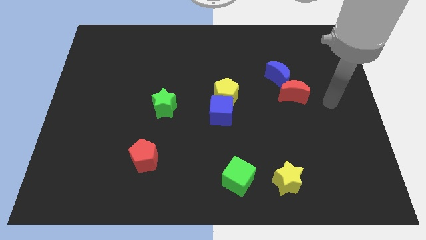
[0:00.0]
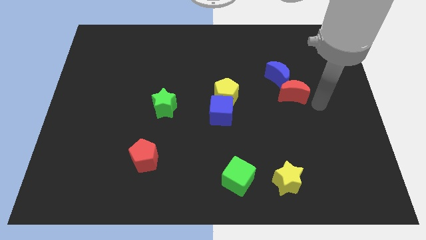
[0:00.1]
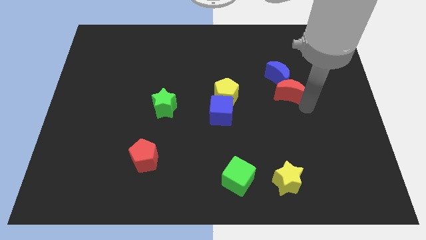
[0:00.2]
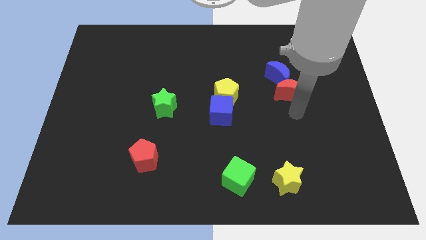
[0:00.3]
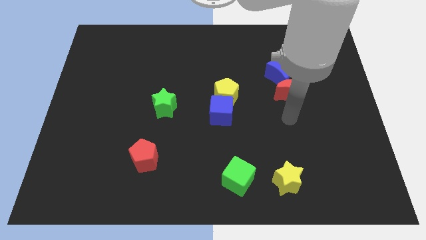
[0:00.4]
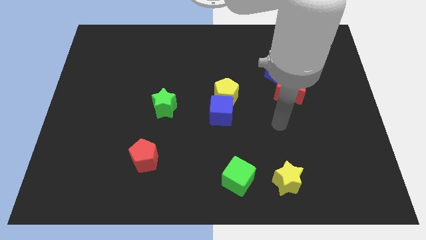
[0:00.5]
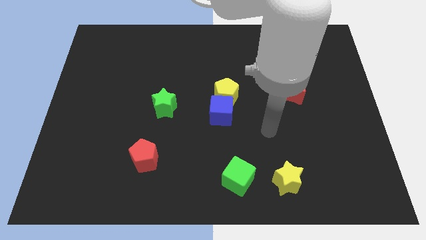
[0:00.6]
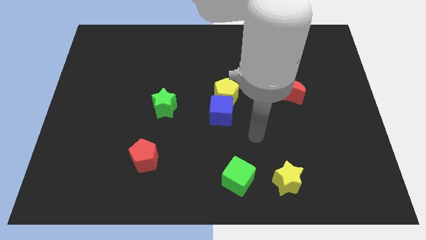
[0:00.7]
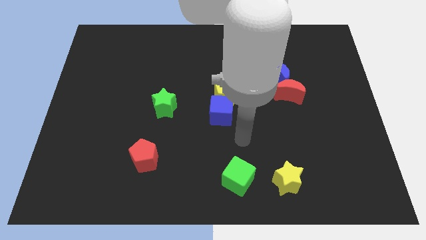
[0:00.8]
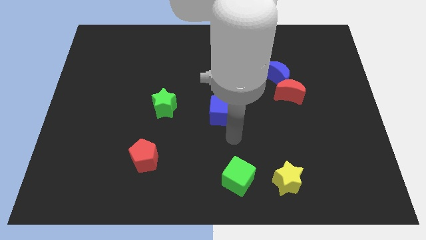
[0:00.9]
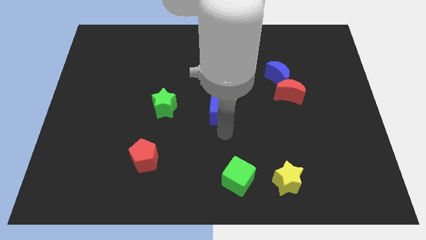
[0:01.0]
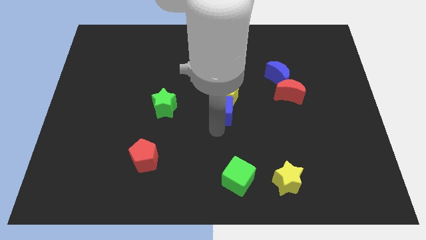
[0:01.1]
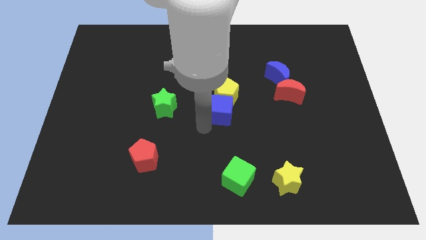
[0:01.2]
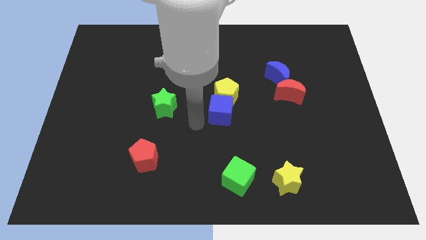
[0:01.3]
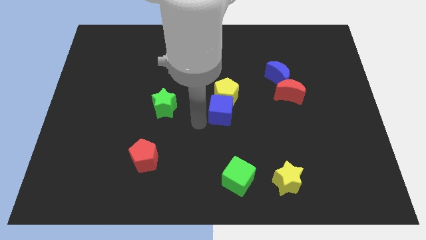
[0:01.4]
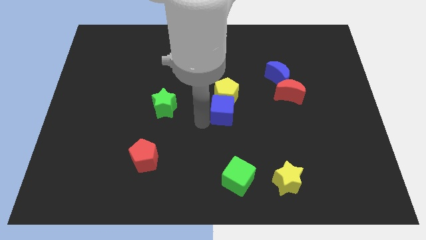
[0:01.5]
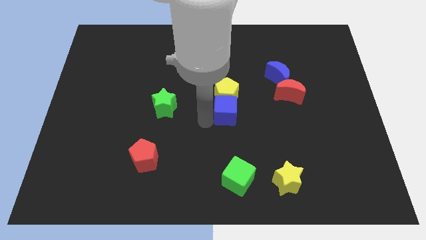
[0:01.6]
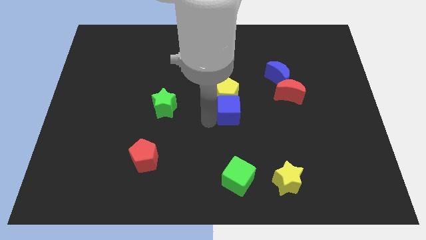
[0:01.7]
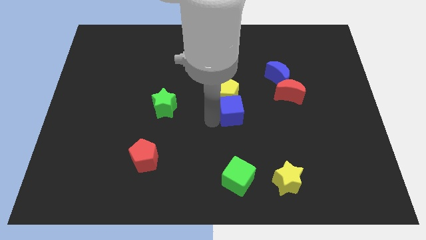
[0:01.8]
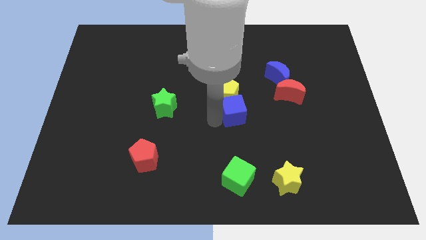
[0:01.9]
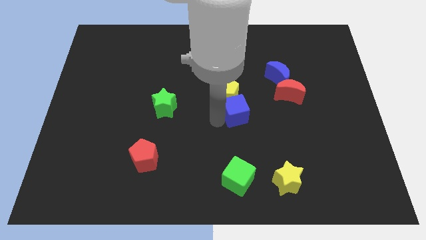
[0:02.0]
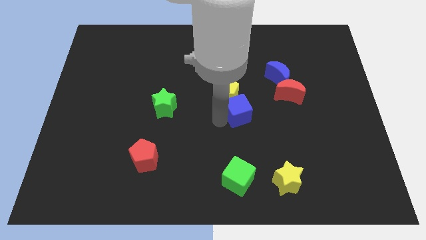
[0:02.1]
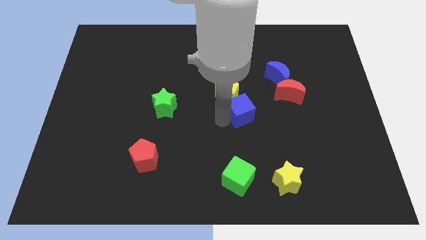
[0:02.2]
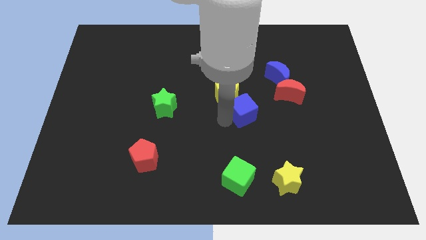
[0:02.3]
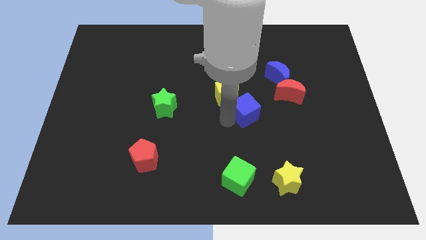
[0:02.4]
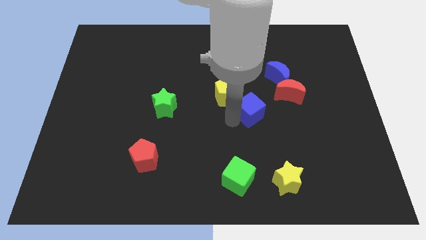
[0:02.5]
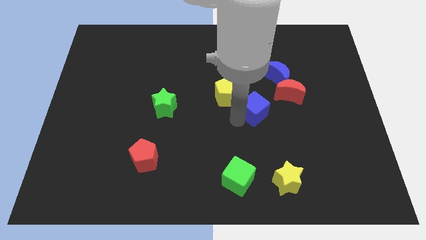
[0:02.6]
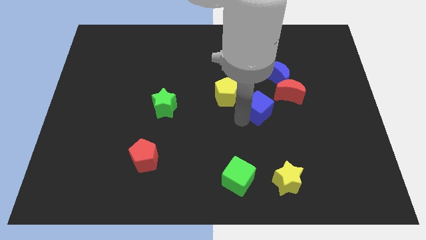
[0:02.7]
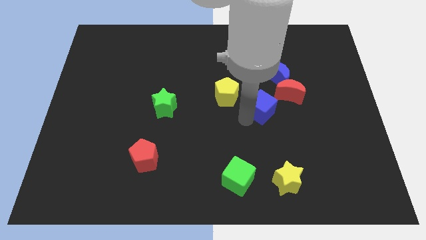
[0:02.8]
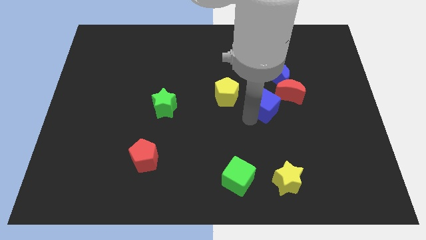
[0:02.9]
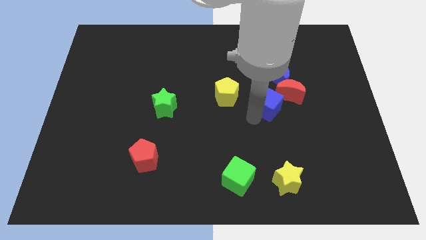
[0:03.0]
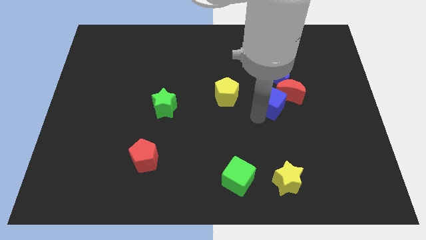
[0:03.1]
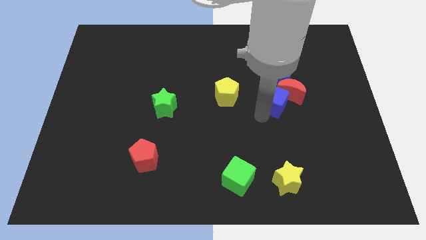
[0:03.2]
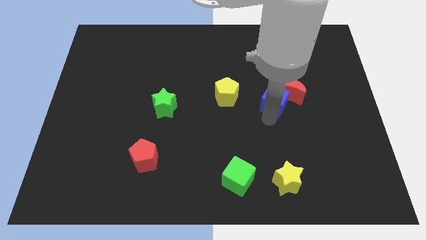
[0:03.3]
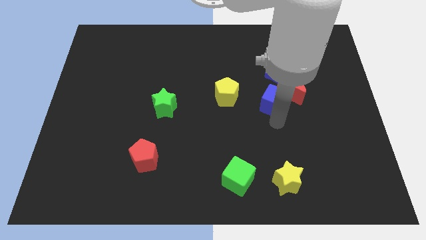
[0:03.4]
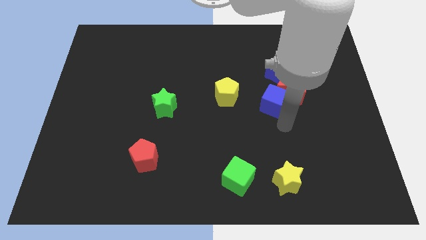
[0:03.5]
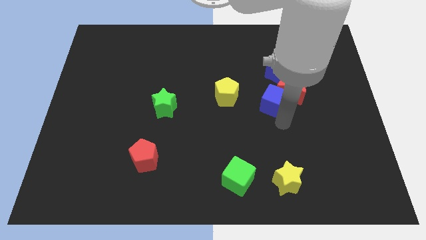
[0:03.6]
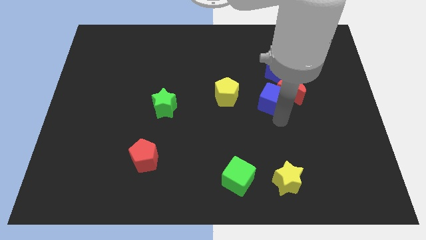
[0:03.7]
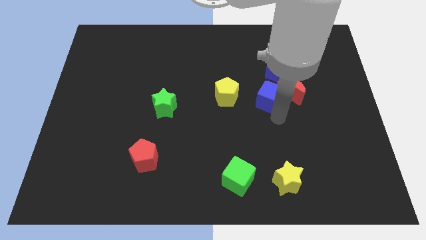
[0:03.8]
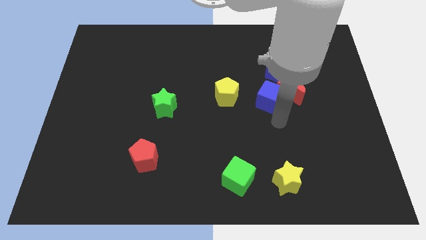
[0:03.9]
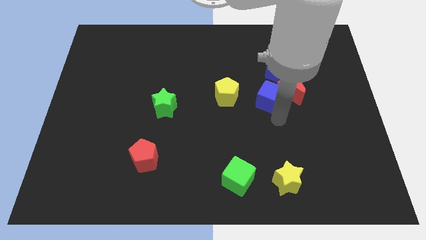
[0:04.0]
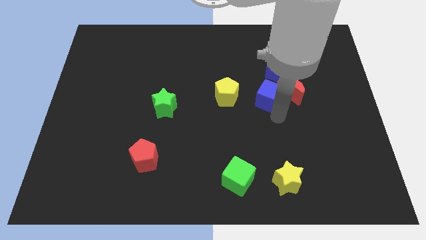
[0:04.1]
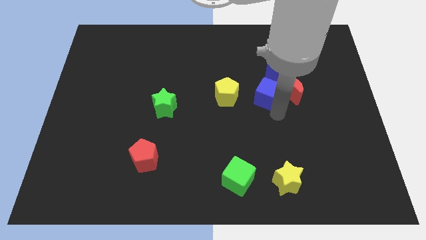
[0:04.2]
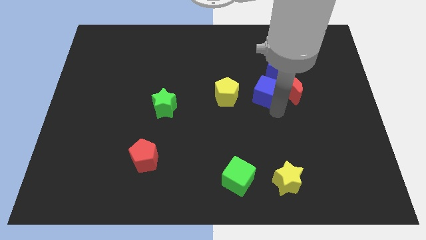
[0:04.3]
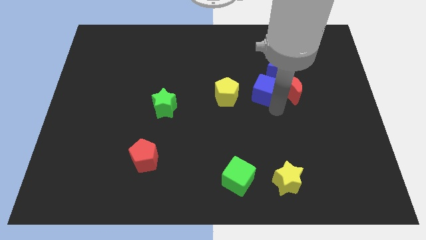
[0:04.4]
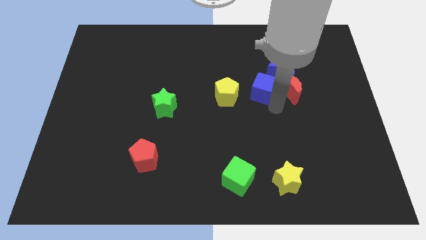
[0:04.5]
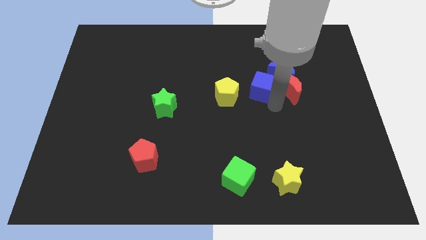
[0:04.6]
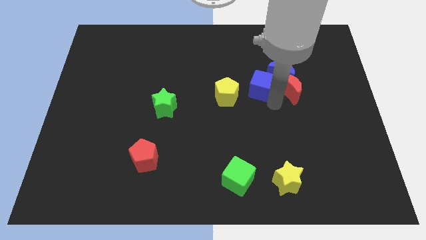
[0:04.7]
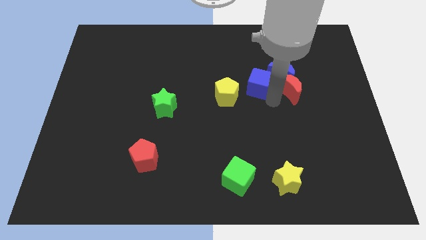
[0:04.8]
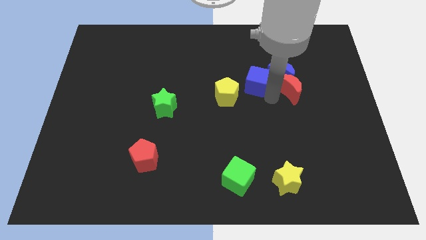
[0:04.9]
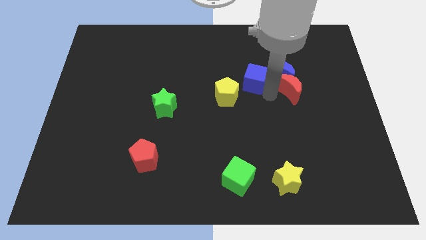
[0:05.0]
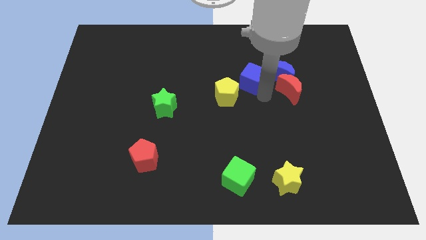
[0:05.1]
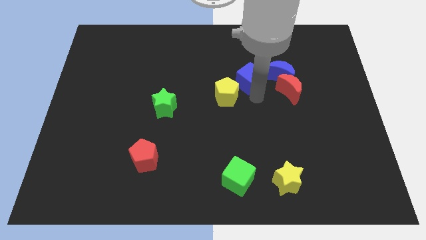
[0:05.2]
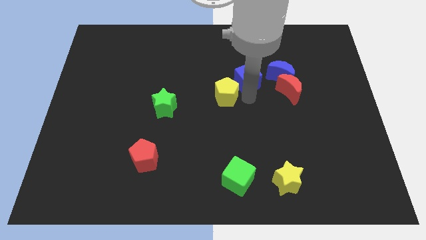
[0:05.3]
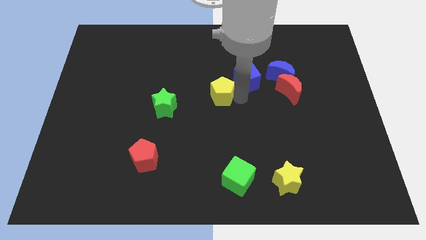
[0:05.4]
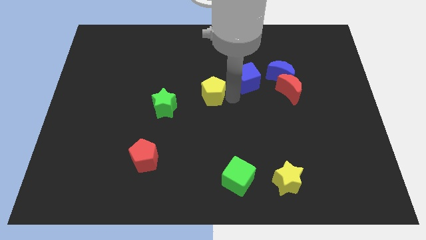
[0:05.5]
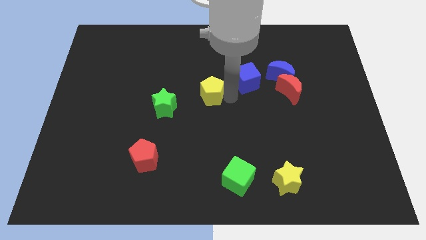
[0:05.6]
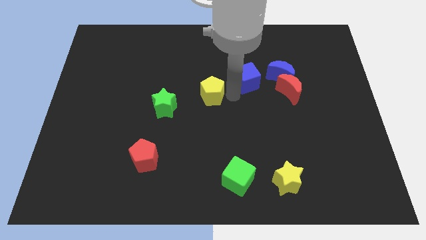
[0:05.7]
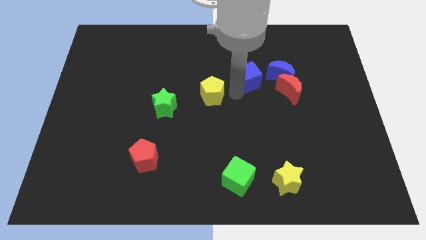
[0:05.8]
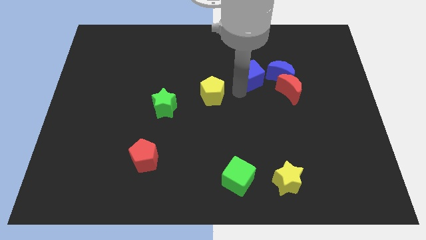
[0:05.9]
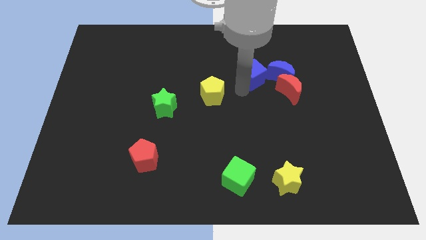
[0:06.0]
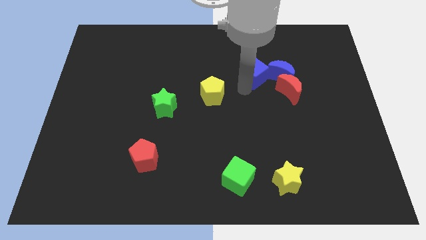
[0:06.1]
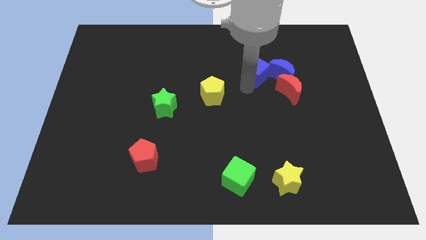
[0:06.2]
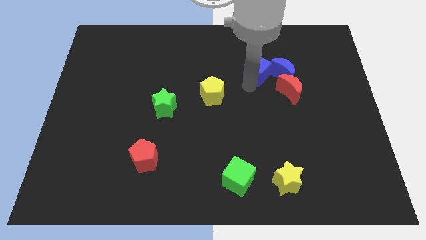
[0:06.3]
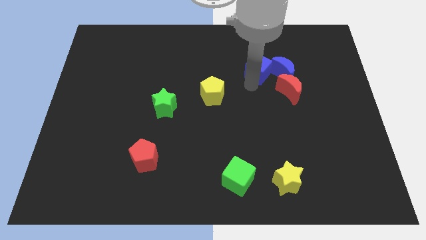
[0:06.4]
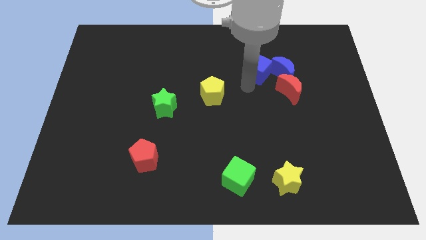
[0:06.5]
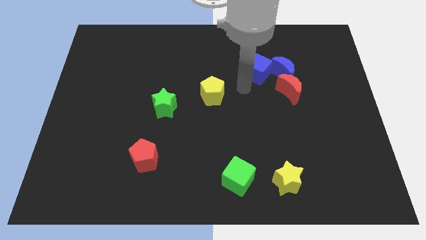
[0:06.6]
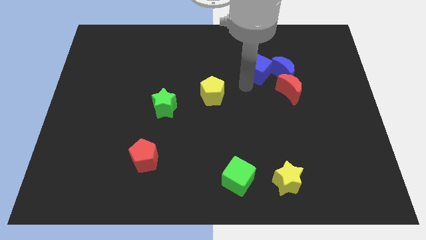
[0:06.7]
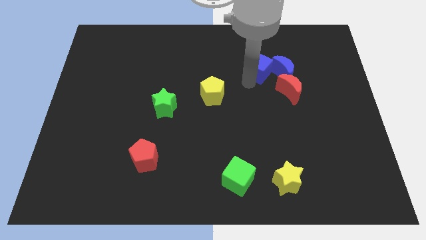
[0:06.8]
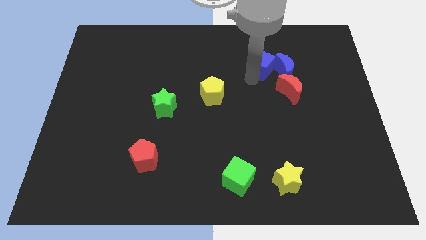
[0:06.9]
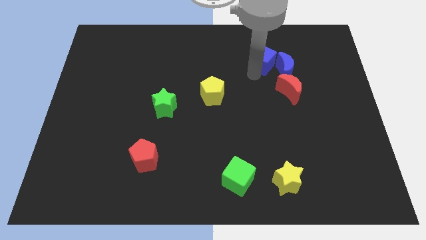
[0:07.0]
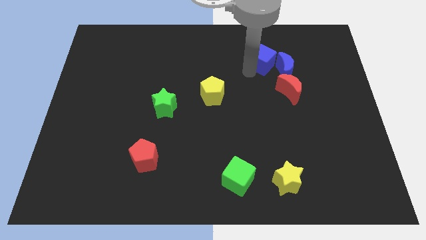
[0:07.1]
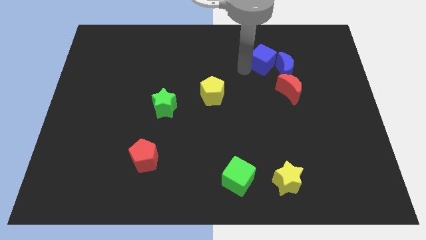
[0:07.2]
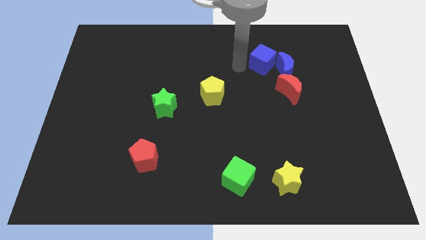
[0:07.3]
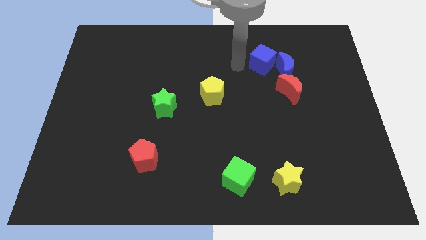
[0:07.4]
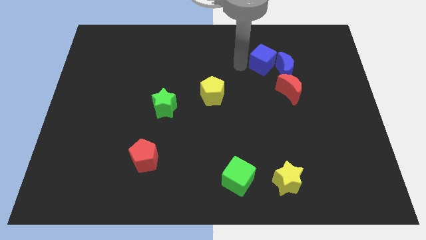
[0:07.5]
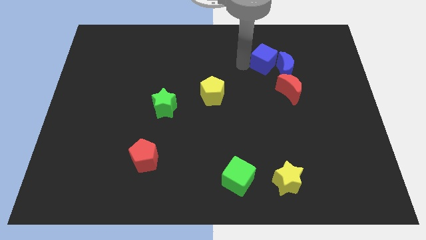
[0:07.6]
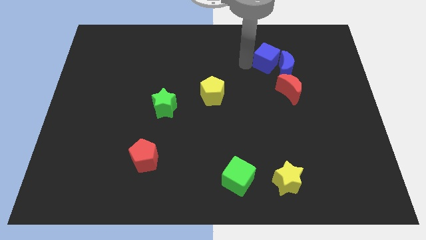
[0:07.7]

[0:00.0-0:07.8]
move the blue cube to the top side of the red moon

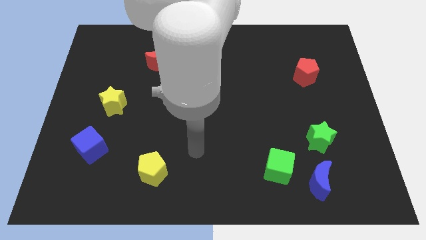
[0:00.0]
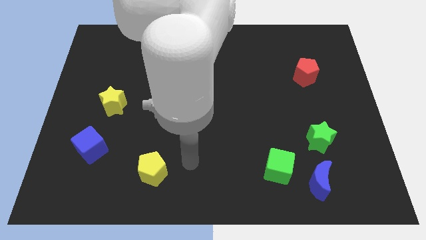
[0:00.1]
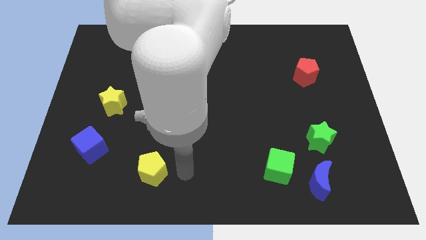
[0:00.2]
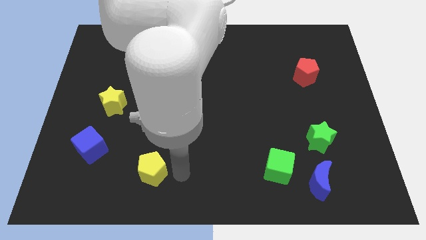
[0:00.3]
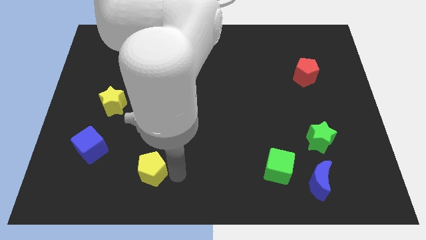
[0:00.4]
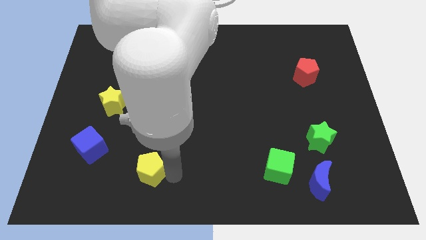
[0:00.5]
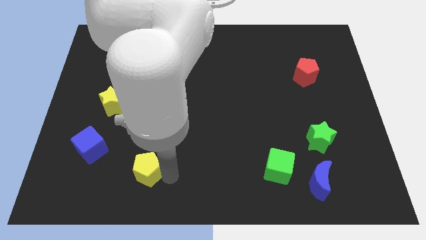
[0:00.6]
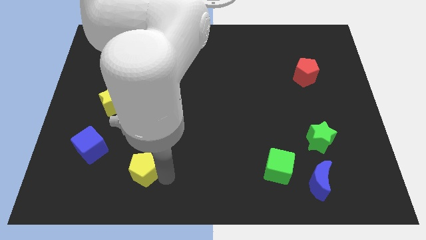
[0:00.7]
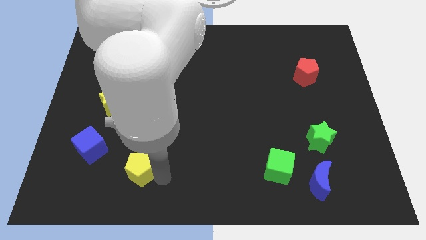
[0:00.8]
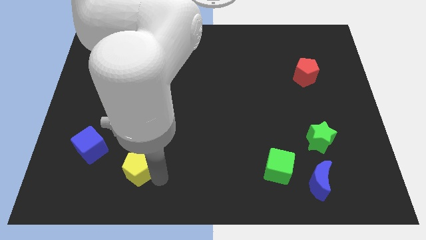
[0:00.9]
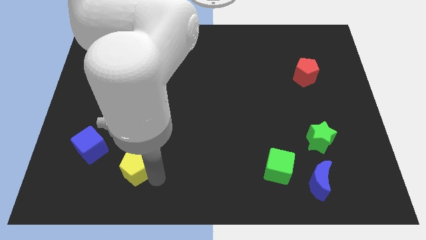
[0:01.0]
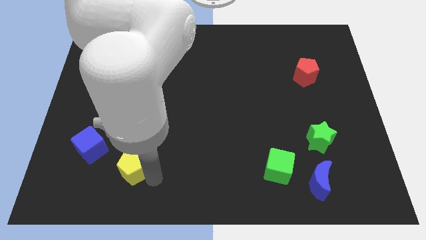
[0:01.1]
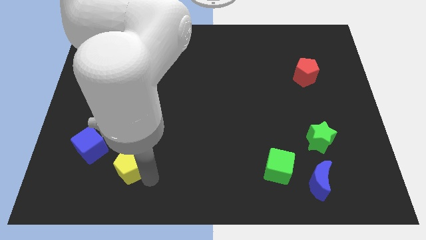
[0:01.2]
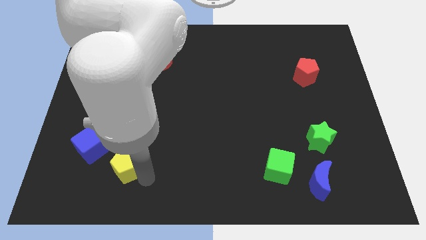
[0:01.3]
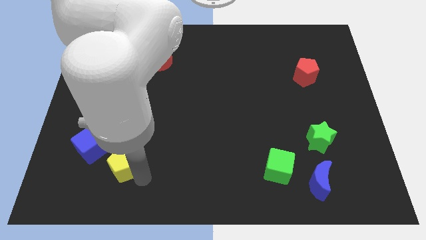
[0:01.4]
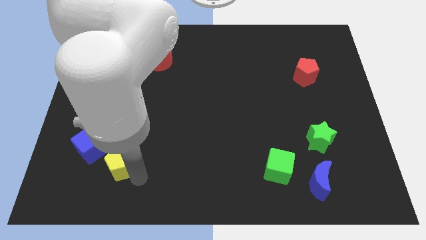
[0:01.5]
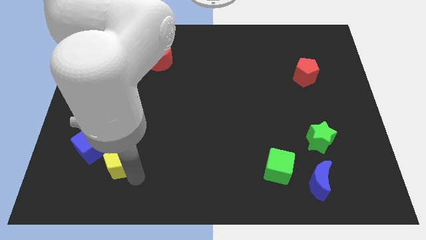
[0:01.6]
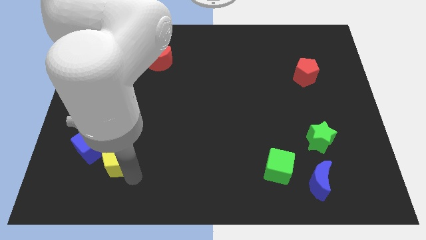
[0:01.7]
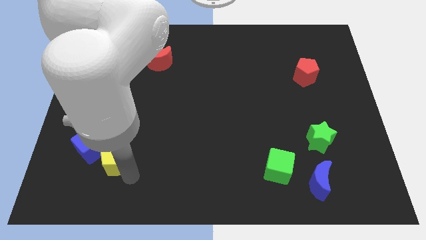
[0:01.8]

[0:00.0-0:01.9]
push the yellow pentagon to the bottom side of the yellow star
